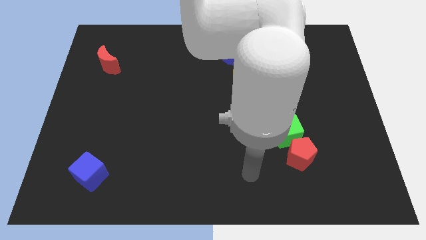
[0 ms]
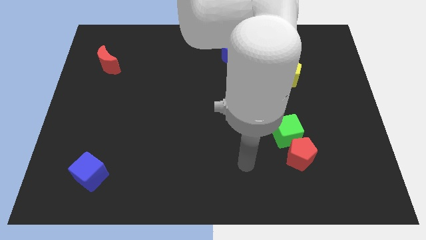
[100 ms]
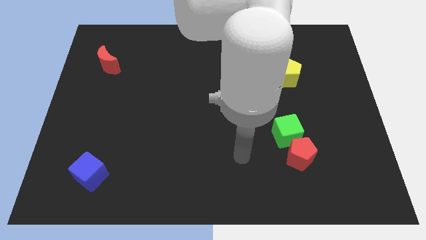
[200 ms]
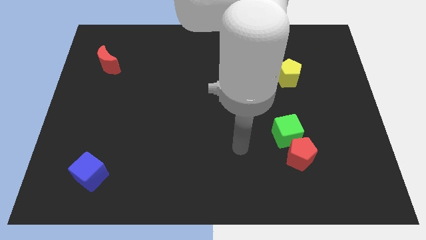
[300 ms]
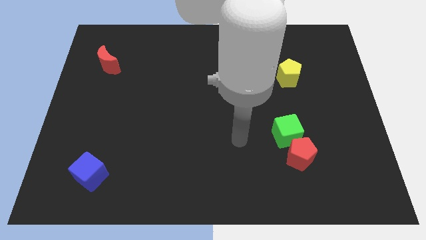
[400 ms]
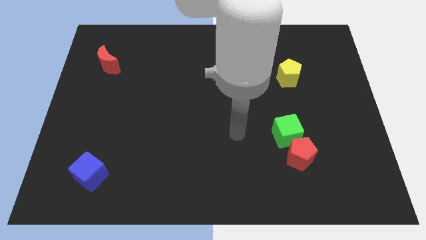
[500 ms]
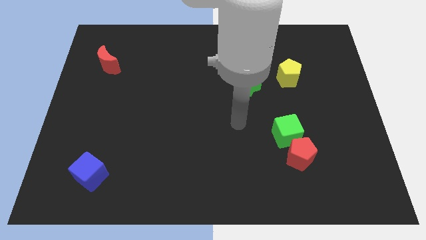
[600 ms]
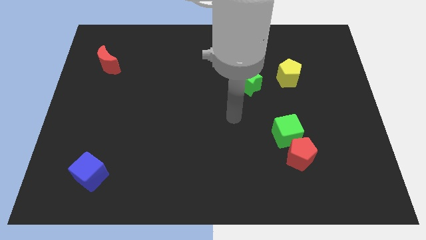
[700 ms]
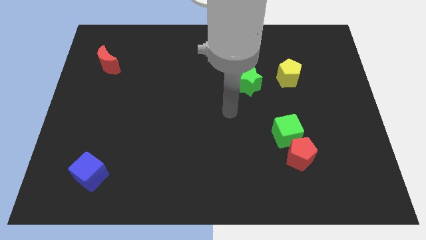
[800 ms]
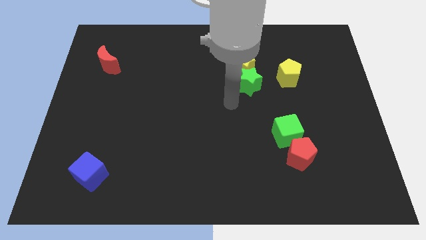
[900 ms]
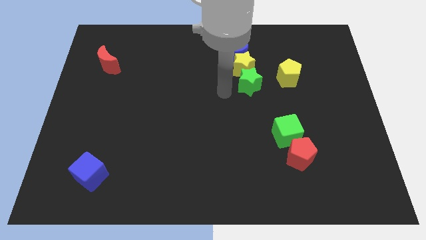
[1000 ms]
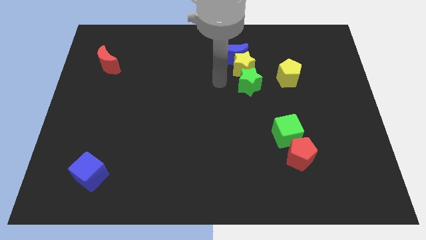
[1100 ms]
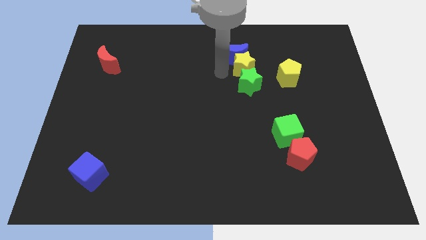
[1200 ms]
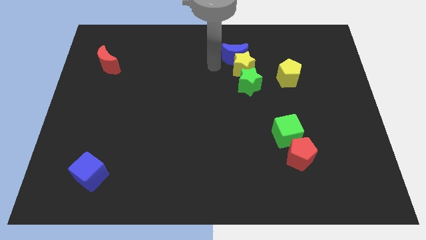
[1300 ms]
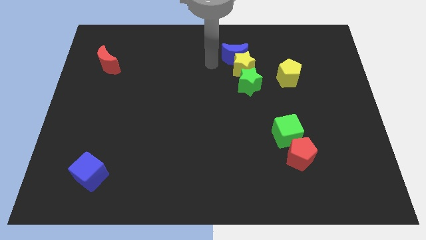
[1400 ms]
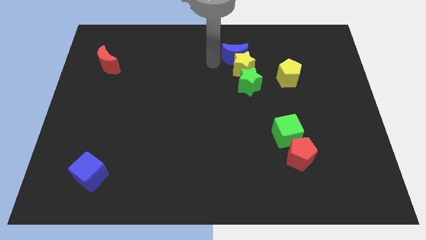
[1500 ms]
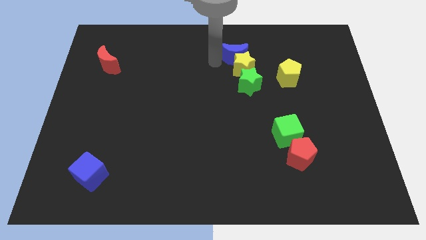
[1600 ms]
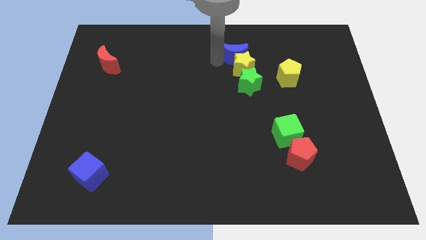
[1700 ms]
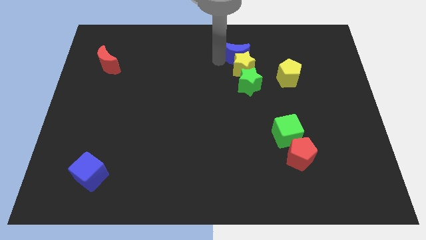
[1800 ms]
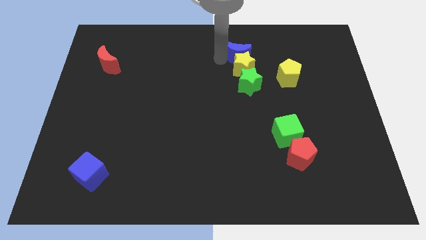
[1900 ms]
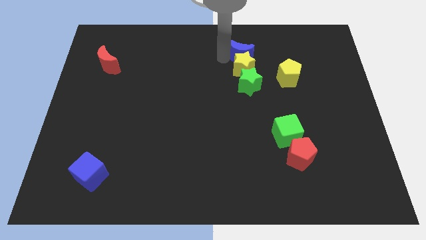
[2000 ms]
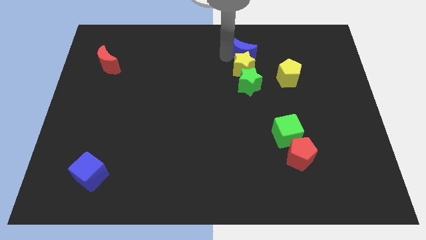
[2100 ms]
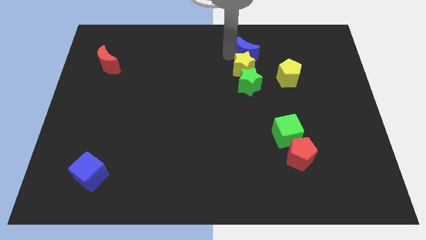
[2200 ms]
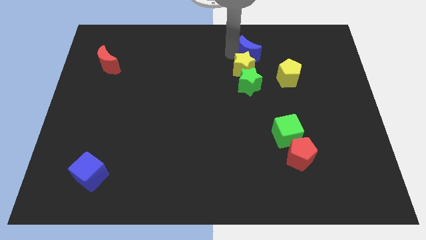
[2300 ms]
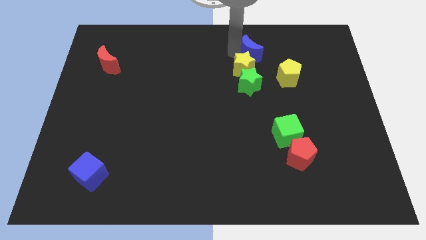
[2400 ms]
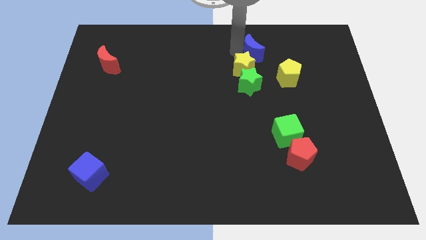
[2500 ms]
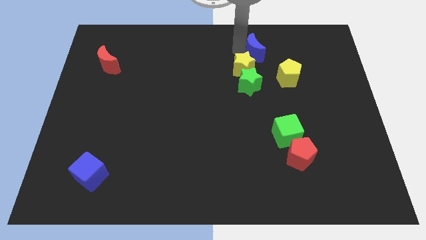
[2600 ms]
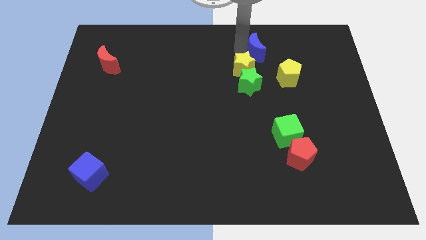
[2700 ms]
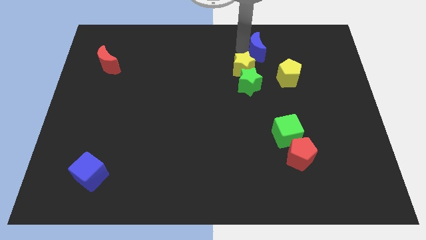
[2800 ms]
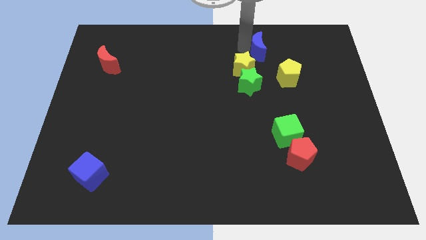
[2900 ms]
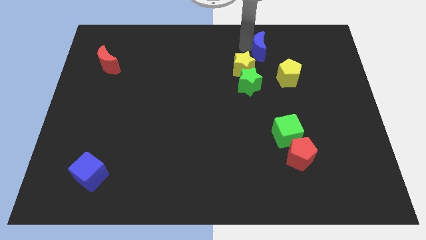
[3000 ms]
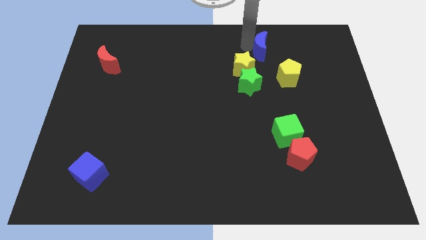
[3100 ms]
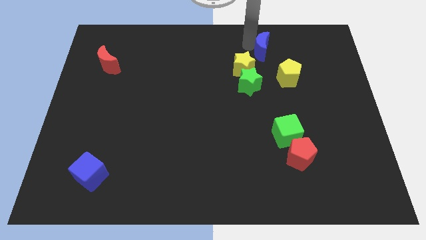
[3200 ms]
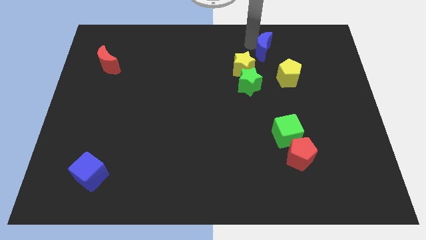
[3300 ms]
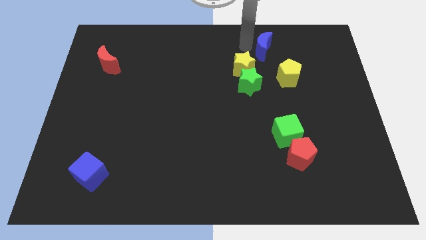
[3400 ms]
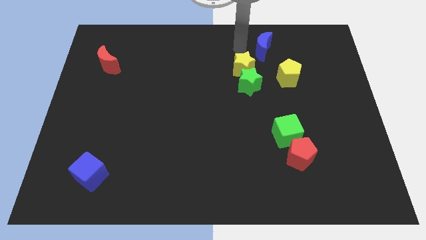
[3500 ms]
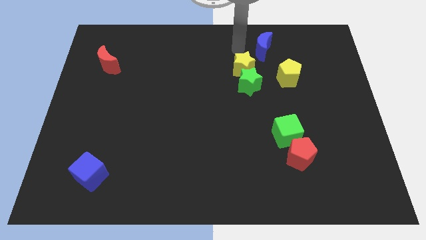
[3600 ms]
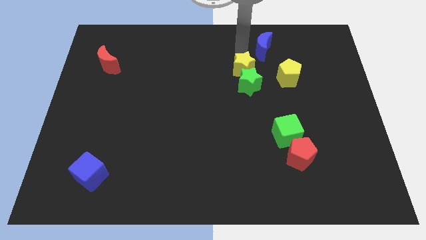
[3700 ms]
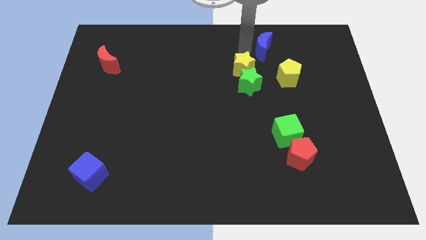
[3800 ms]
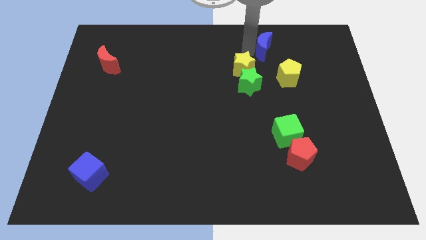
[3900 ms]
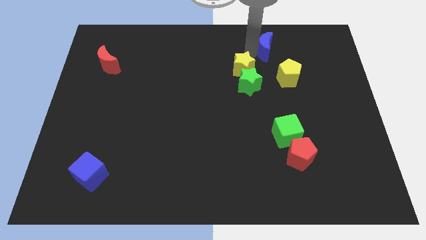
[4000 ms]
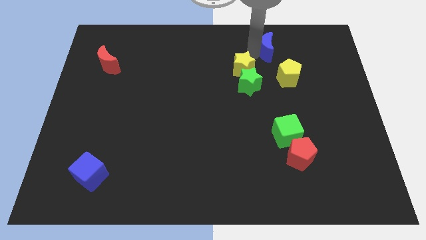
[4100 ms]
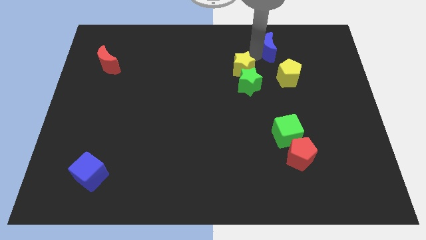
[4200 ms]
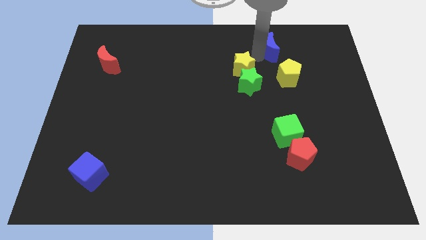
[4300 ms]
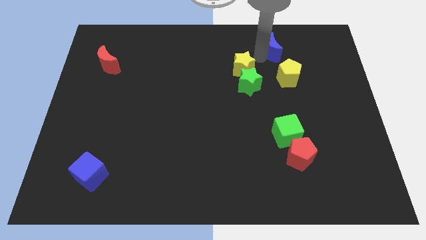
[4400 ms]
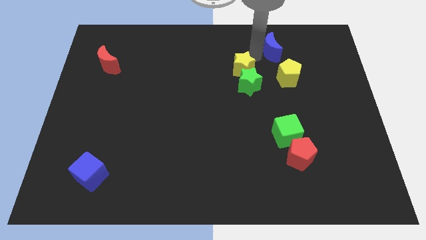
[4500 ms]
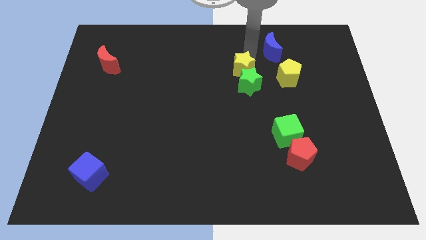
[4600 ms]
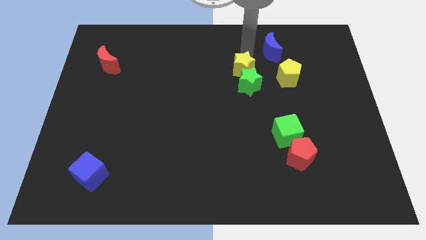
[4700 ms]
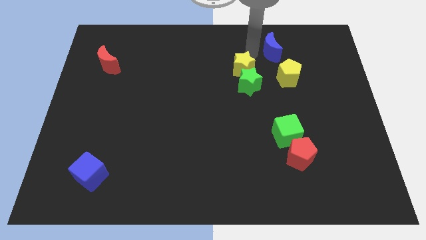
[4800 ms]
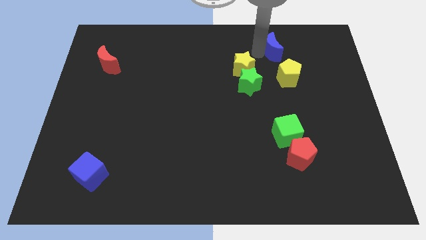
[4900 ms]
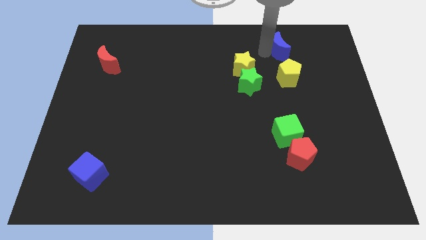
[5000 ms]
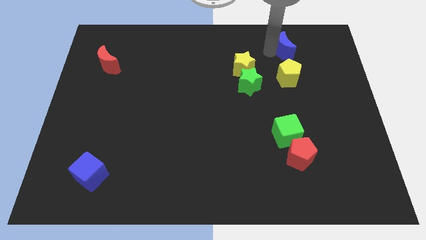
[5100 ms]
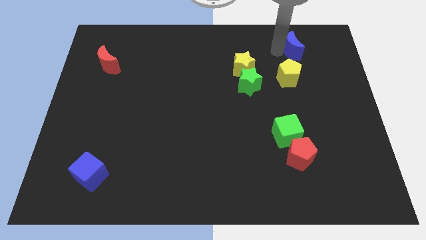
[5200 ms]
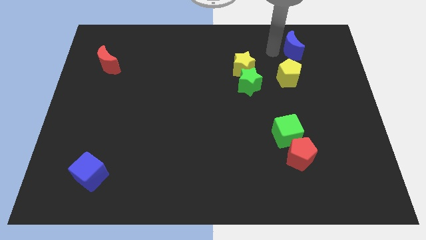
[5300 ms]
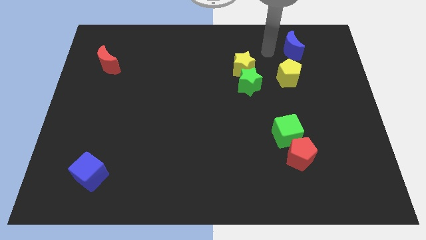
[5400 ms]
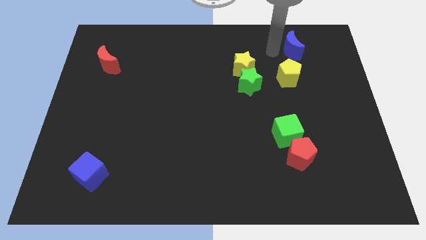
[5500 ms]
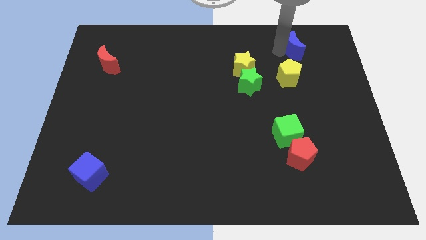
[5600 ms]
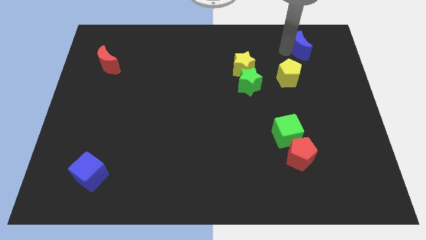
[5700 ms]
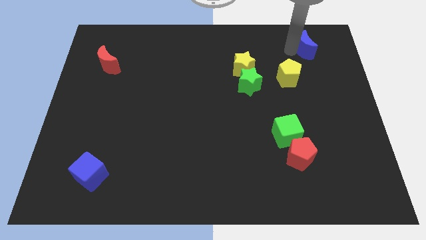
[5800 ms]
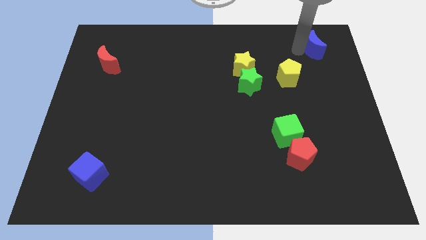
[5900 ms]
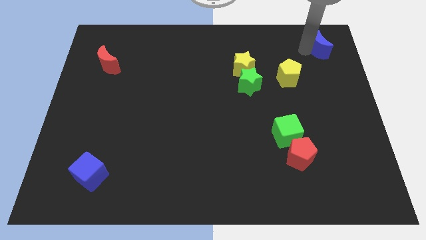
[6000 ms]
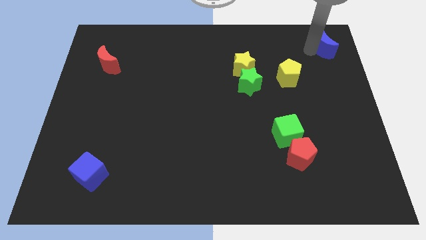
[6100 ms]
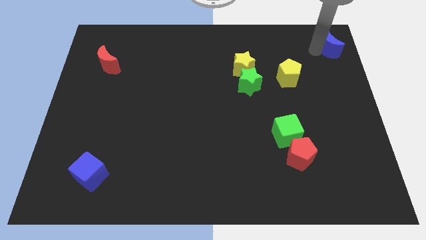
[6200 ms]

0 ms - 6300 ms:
push the blue moon to the top right of the board

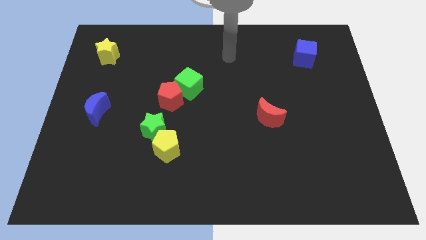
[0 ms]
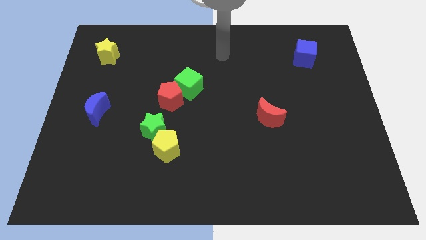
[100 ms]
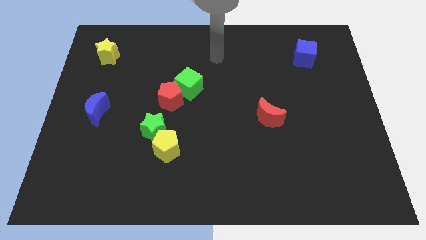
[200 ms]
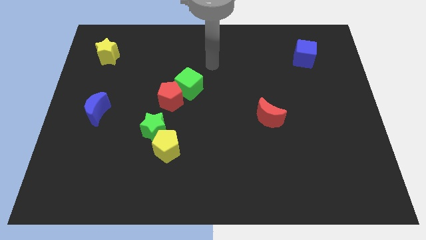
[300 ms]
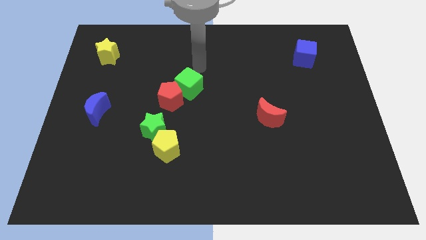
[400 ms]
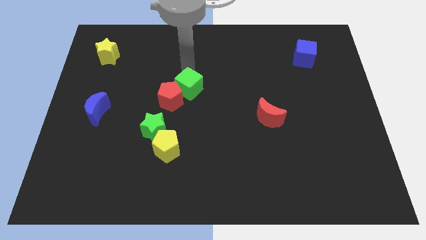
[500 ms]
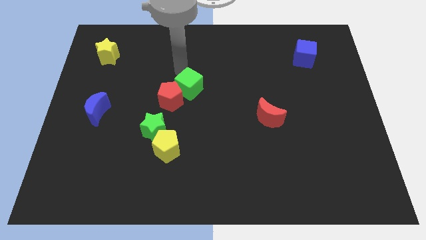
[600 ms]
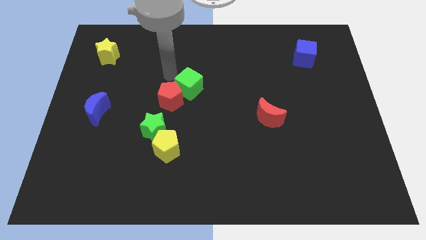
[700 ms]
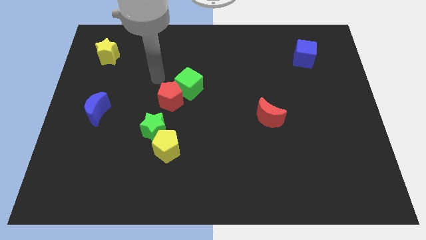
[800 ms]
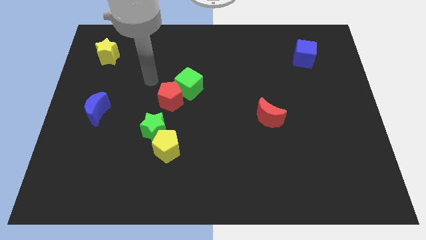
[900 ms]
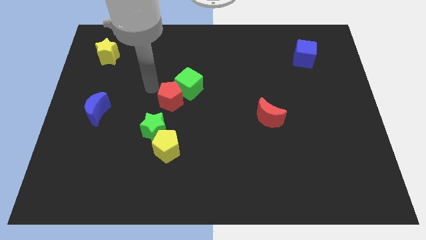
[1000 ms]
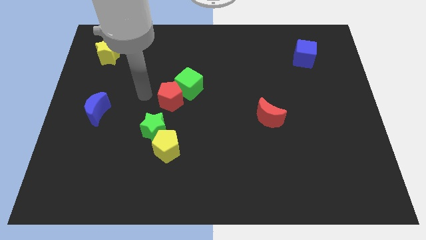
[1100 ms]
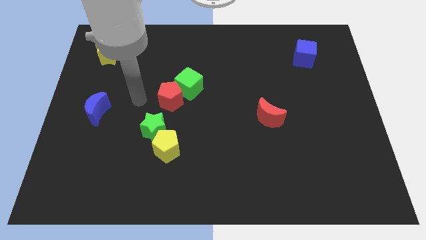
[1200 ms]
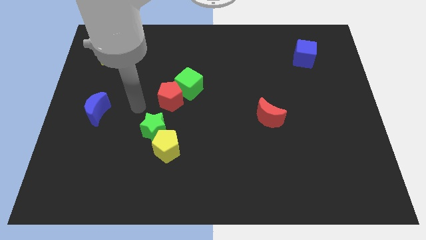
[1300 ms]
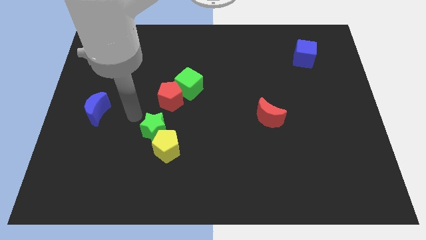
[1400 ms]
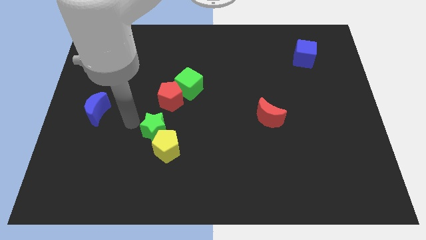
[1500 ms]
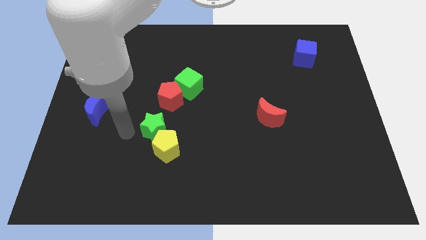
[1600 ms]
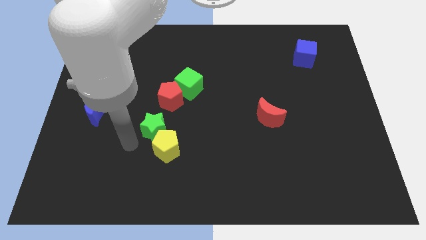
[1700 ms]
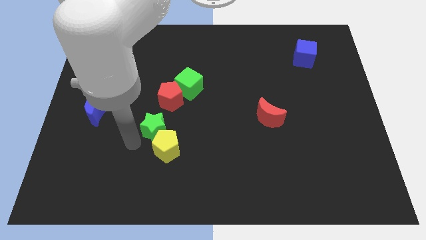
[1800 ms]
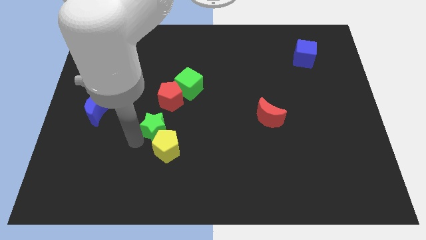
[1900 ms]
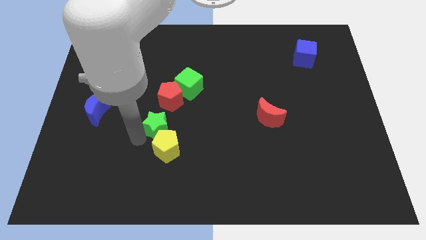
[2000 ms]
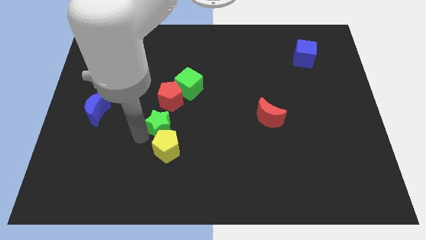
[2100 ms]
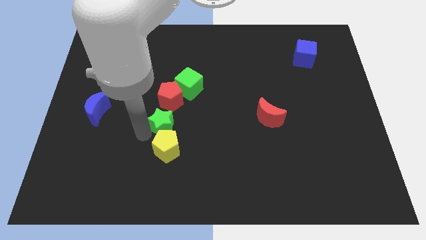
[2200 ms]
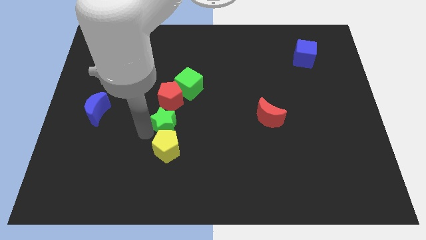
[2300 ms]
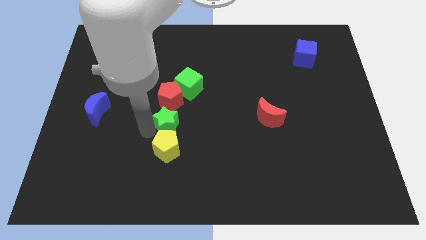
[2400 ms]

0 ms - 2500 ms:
put the green star to the center
